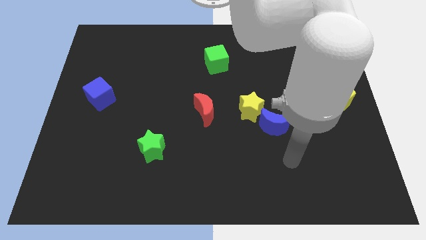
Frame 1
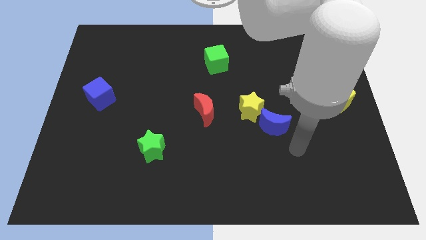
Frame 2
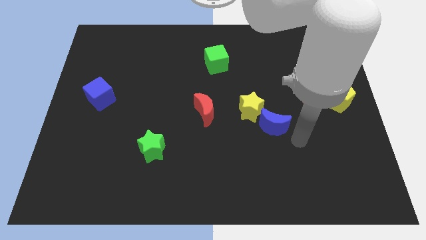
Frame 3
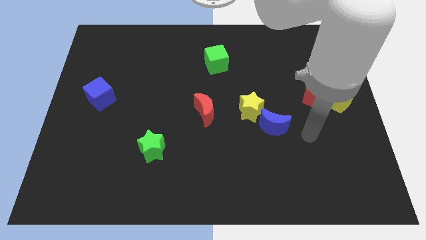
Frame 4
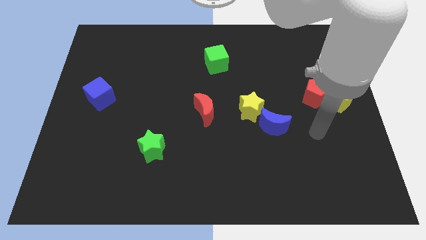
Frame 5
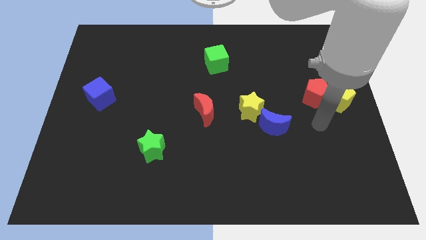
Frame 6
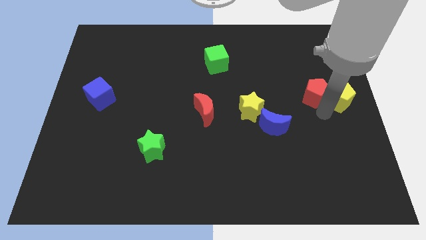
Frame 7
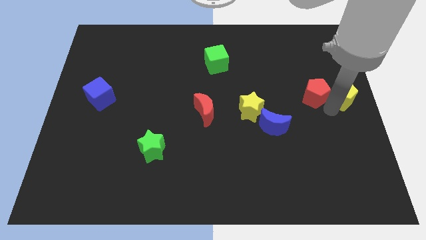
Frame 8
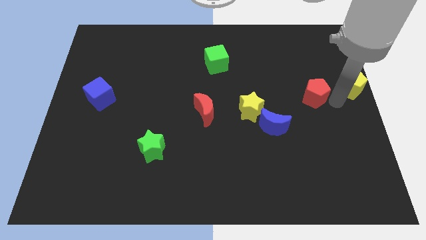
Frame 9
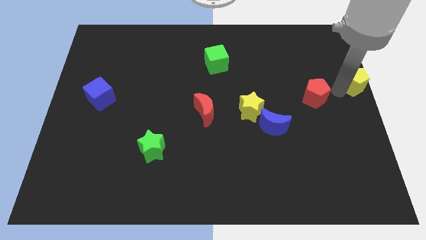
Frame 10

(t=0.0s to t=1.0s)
separate the red pentagon from the yellow pentagon

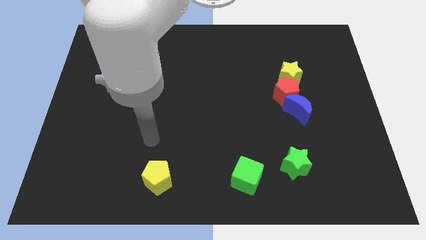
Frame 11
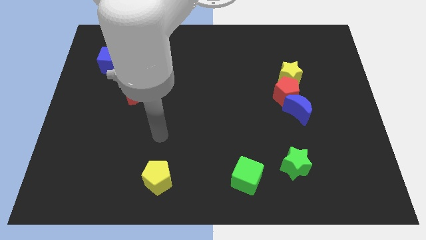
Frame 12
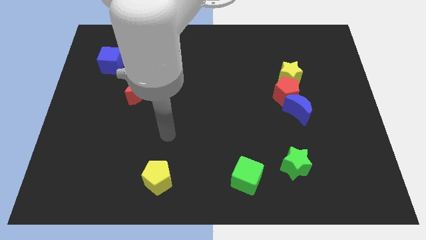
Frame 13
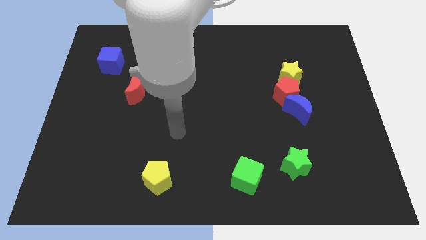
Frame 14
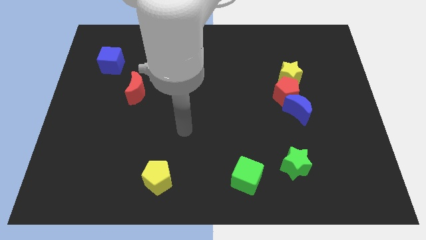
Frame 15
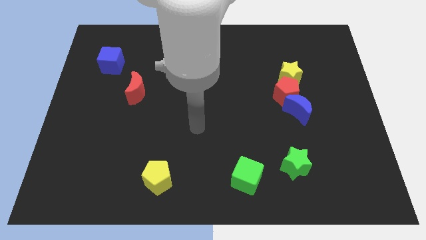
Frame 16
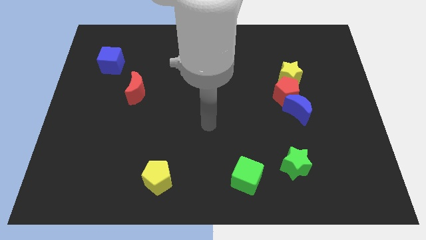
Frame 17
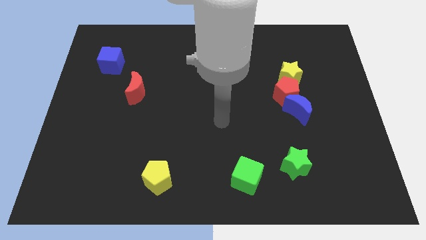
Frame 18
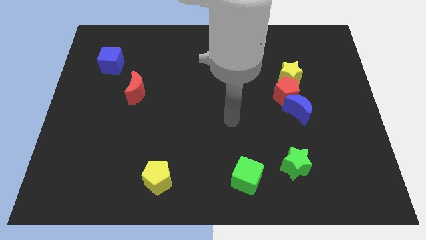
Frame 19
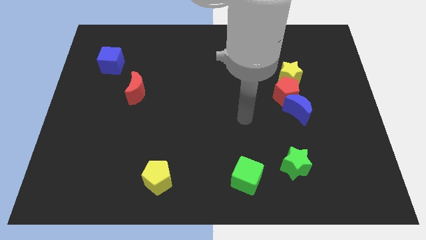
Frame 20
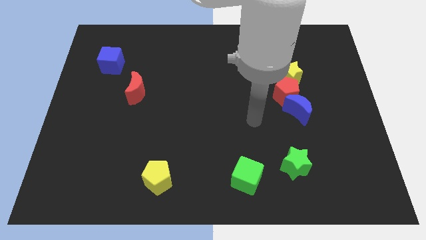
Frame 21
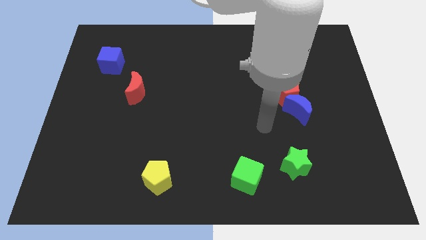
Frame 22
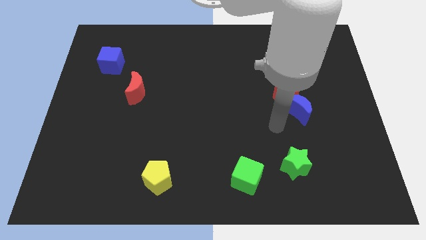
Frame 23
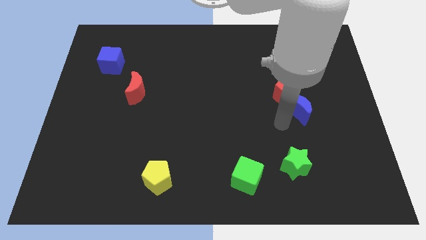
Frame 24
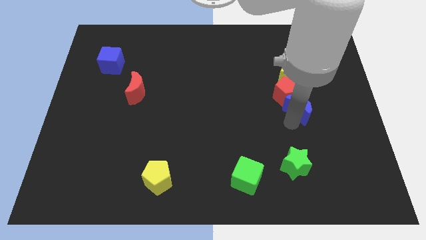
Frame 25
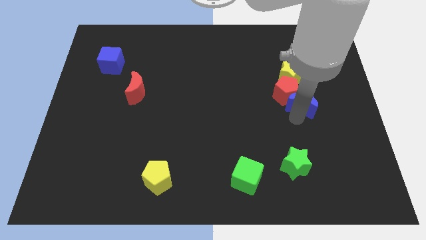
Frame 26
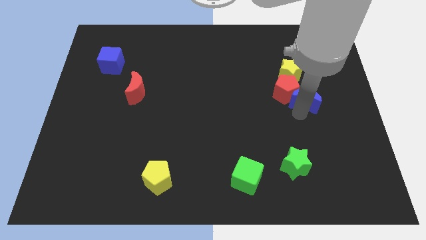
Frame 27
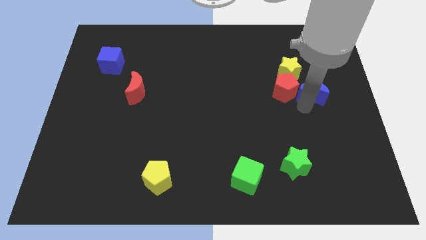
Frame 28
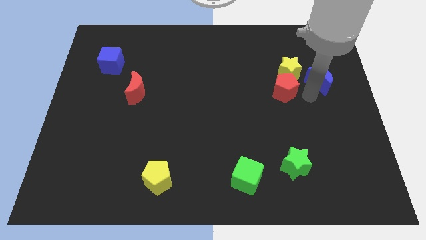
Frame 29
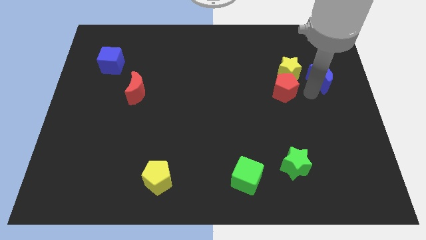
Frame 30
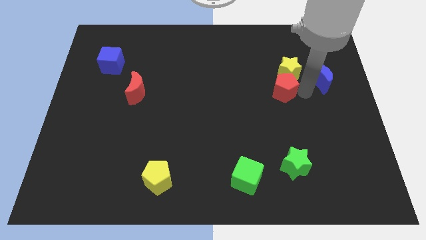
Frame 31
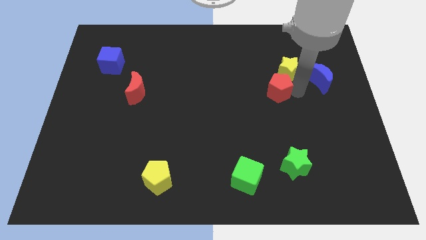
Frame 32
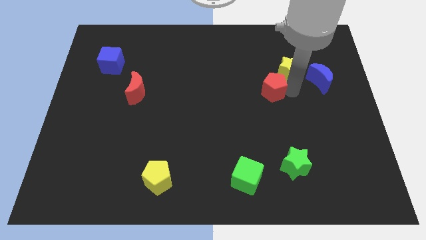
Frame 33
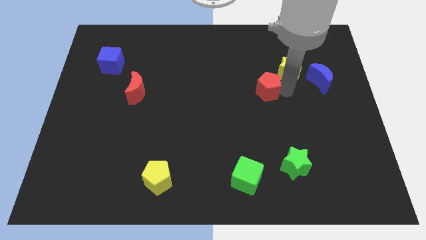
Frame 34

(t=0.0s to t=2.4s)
separate the red pentagon from the yellow star and blue moon

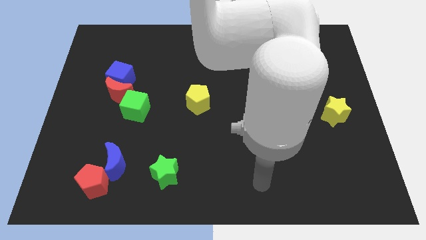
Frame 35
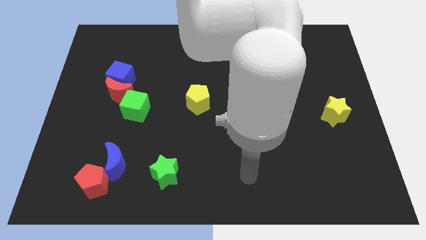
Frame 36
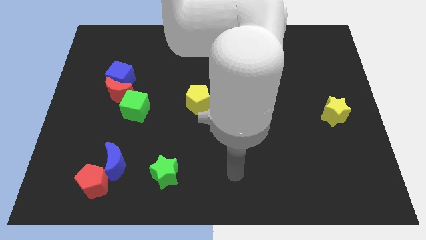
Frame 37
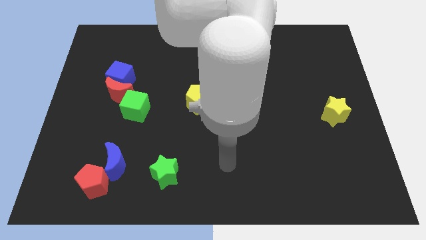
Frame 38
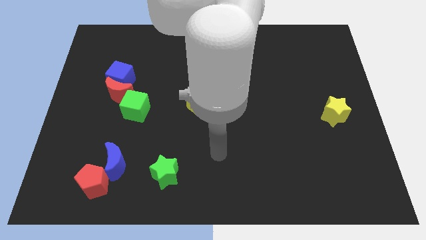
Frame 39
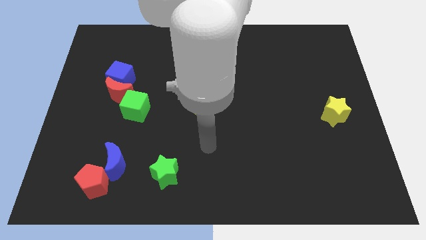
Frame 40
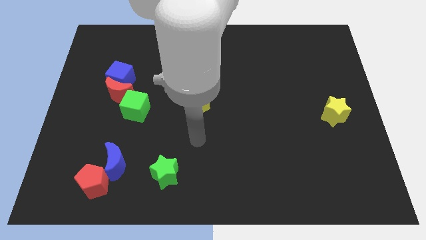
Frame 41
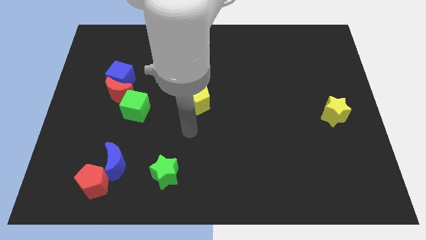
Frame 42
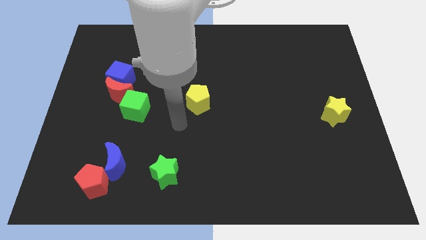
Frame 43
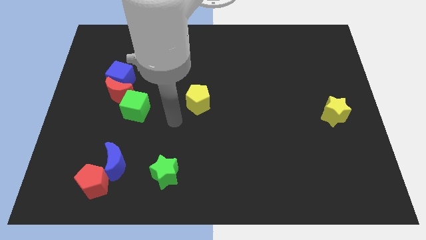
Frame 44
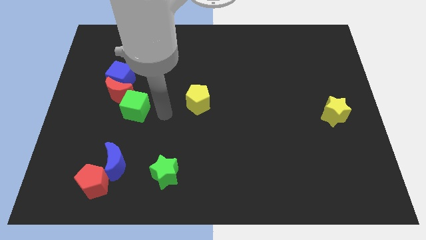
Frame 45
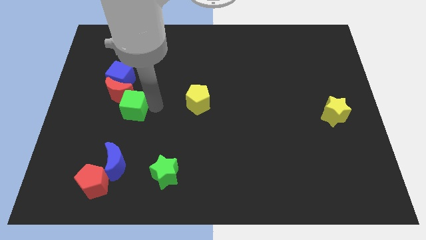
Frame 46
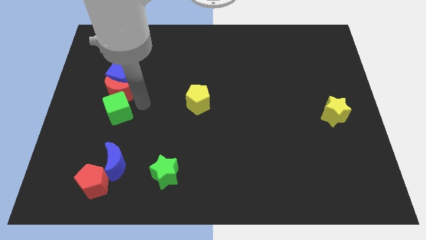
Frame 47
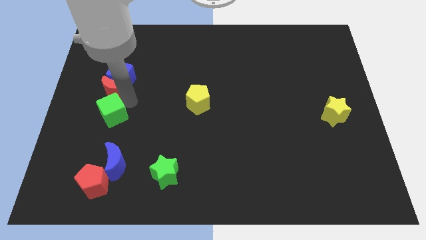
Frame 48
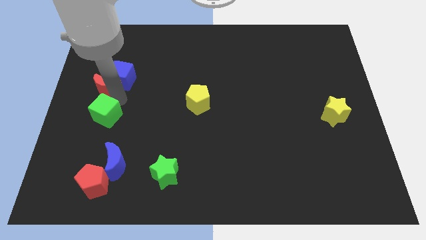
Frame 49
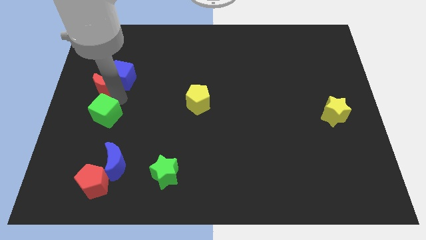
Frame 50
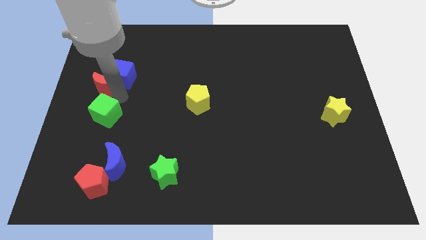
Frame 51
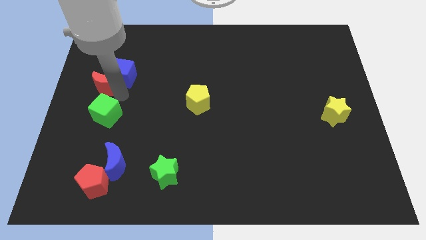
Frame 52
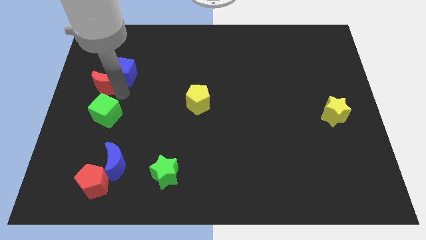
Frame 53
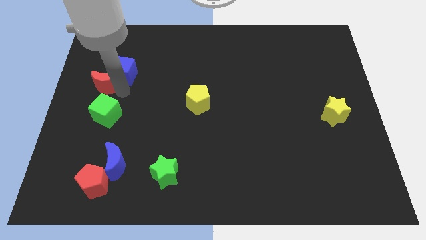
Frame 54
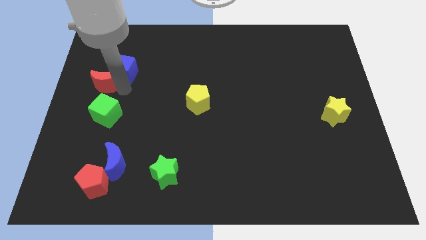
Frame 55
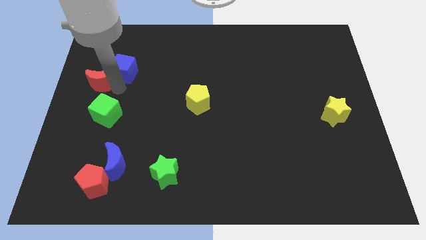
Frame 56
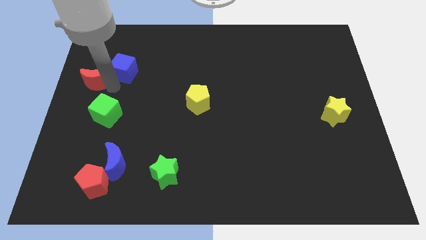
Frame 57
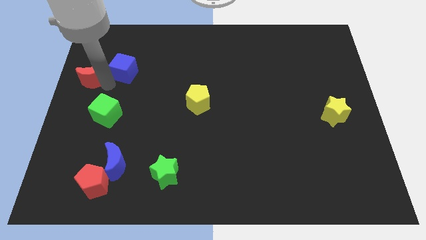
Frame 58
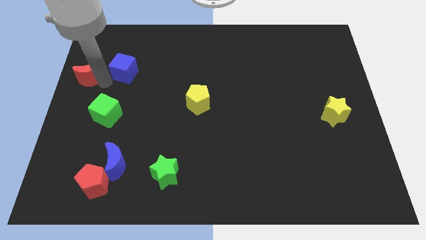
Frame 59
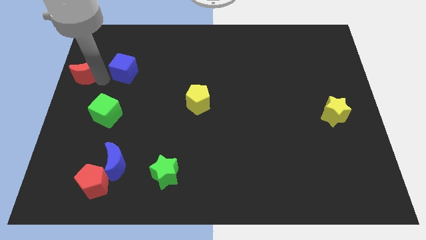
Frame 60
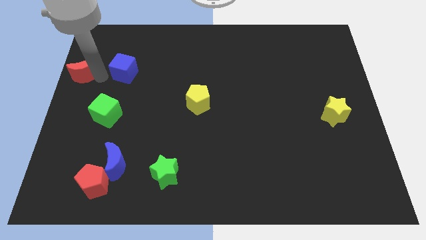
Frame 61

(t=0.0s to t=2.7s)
move the blue cube away from the red moon

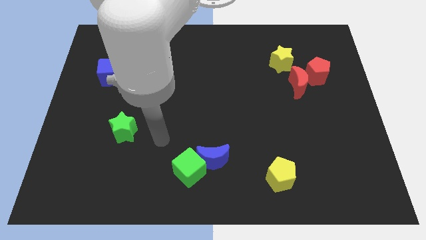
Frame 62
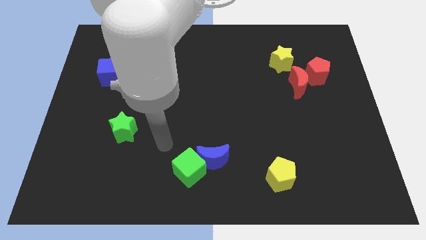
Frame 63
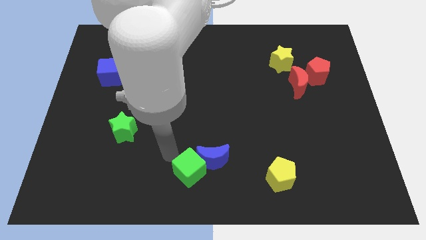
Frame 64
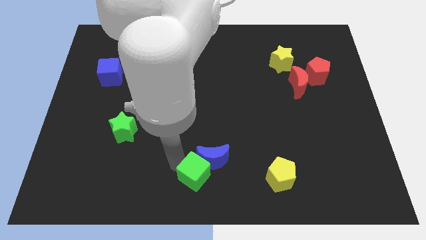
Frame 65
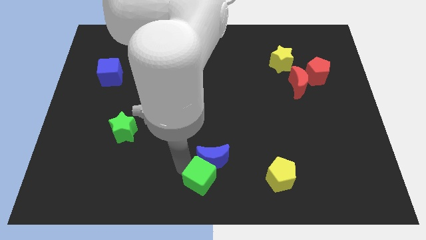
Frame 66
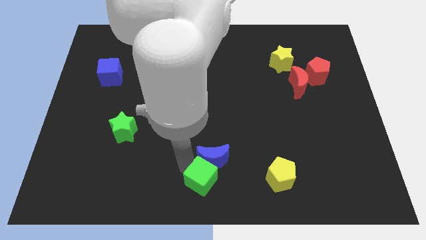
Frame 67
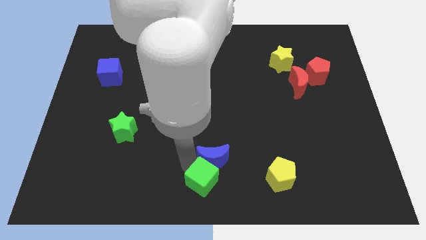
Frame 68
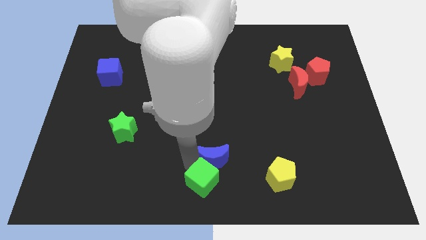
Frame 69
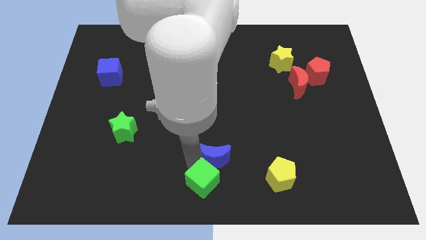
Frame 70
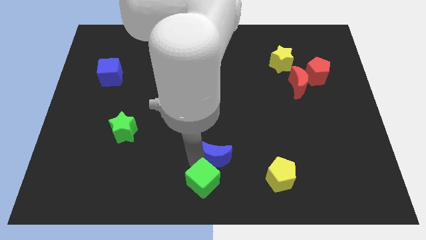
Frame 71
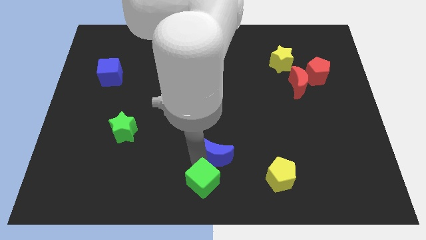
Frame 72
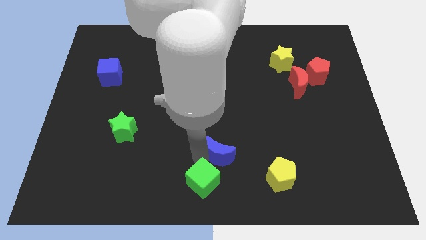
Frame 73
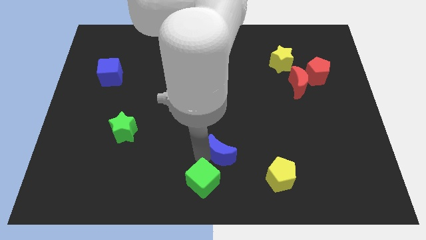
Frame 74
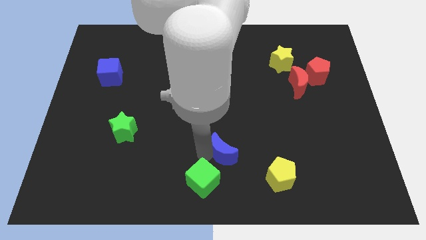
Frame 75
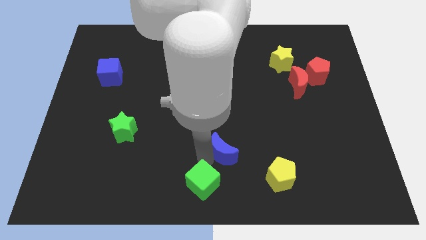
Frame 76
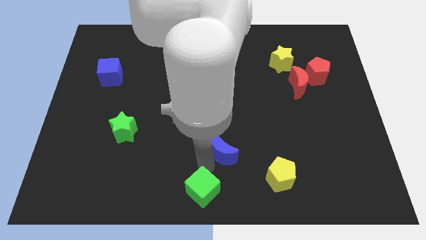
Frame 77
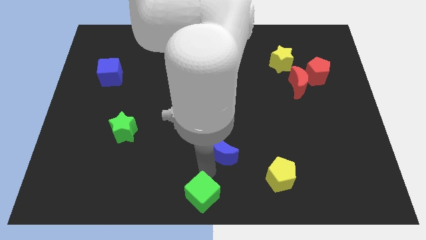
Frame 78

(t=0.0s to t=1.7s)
pull the blue moon apart from the green cube

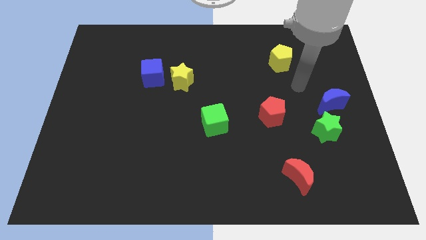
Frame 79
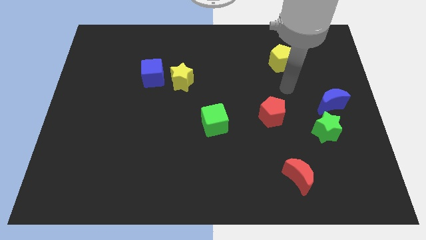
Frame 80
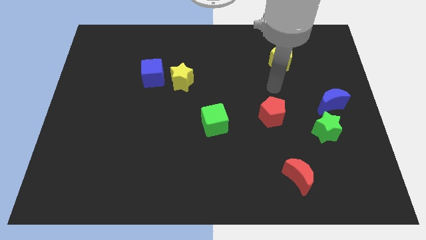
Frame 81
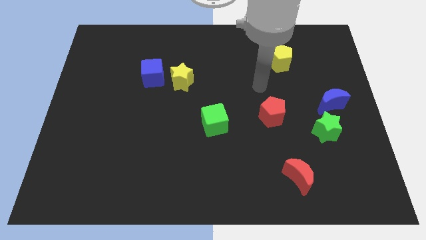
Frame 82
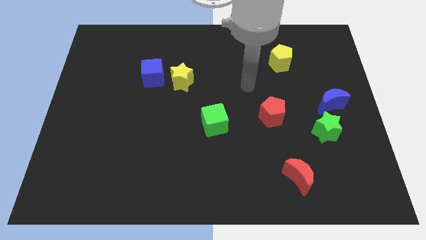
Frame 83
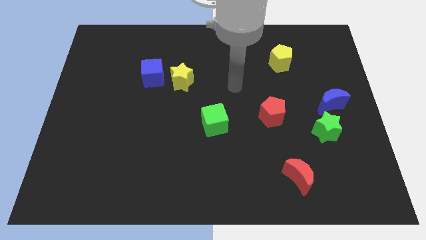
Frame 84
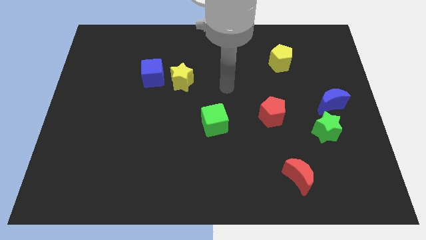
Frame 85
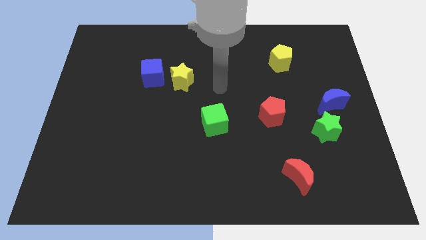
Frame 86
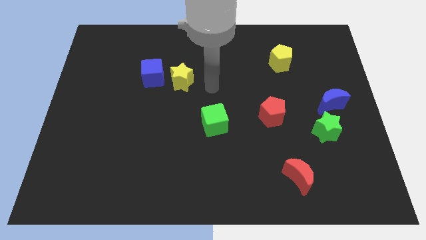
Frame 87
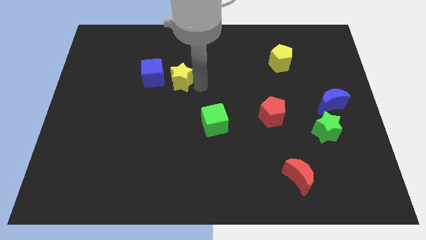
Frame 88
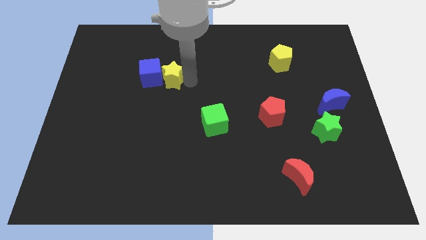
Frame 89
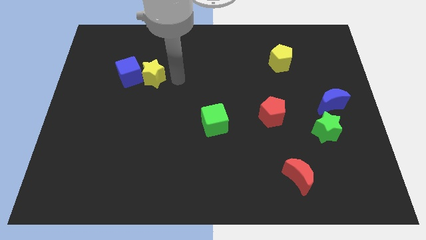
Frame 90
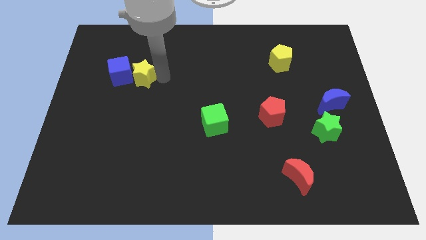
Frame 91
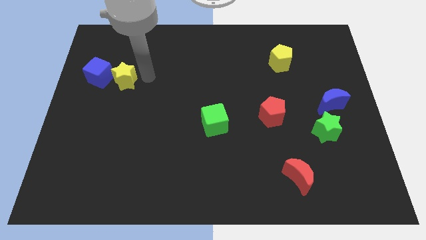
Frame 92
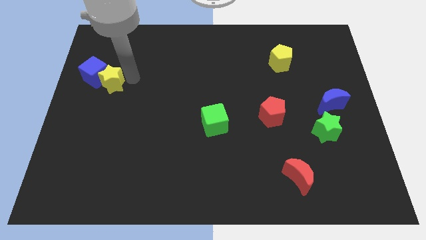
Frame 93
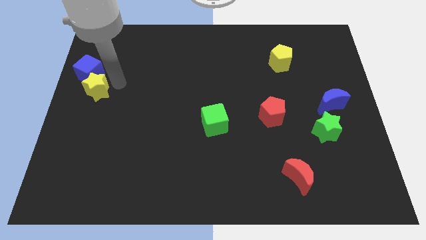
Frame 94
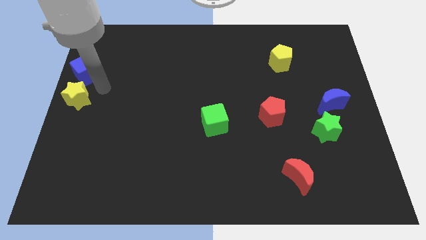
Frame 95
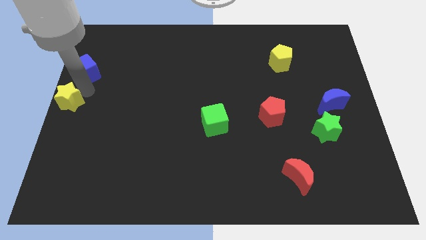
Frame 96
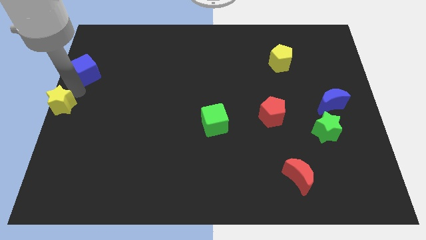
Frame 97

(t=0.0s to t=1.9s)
separate the blue cube from the yellow star
